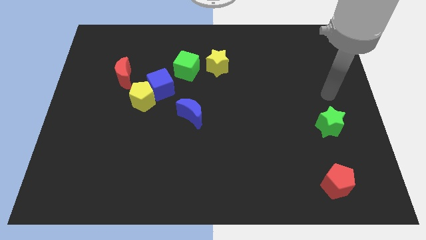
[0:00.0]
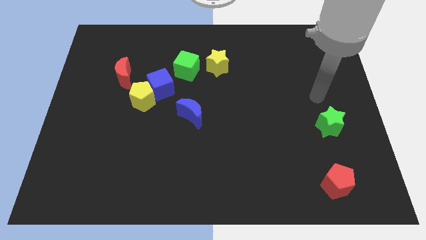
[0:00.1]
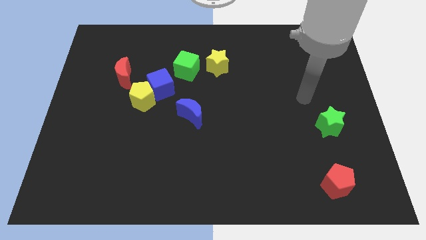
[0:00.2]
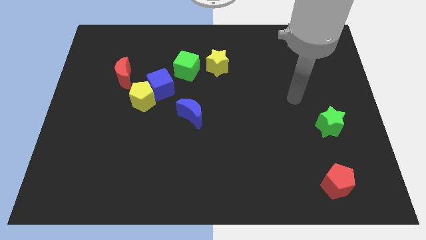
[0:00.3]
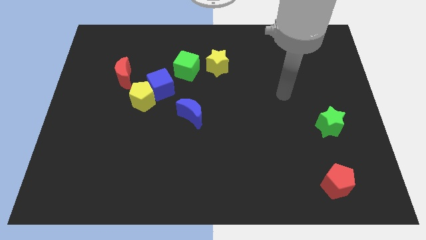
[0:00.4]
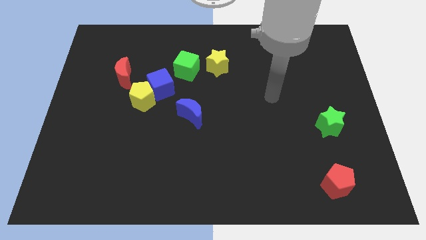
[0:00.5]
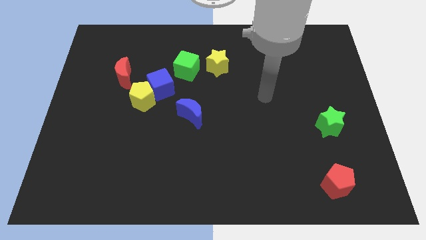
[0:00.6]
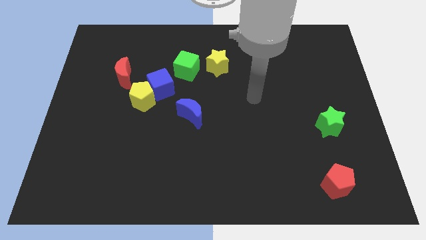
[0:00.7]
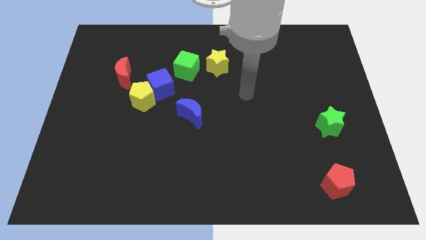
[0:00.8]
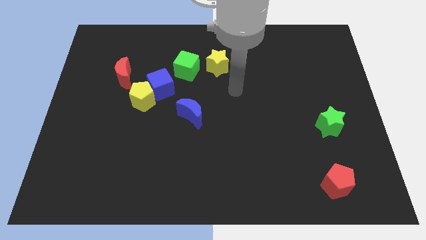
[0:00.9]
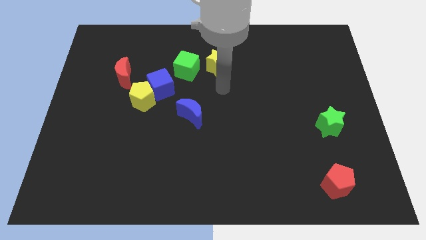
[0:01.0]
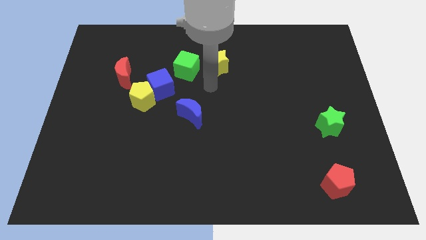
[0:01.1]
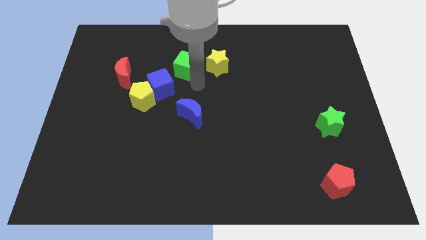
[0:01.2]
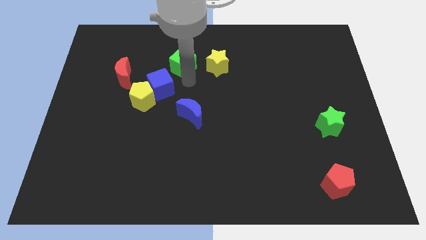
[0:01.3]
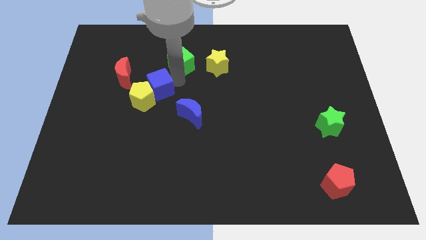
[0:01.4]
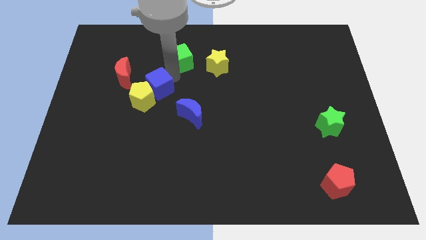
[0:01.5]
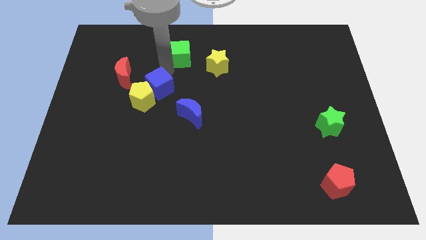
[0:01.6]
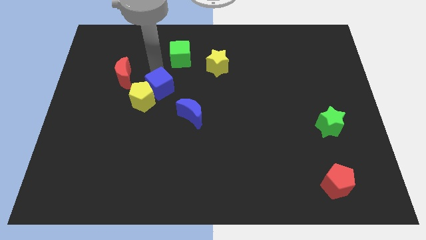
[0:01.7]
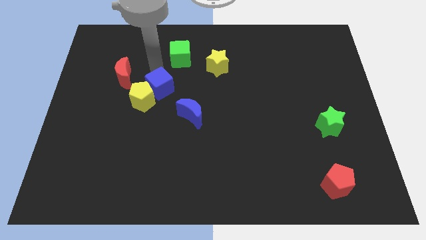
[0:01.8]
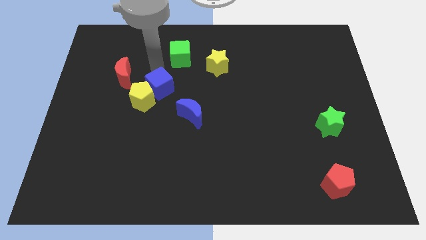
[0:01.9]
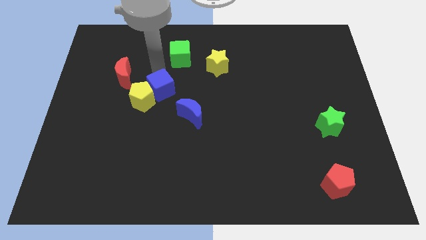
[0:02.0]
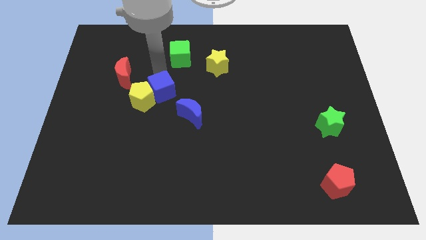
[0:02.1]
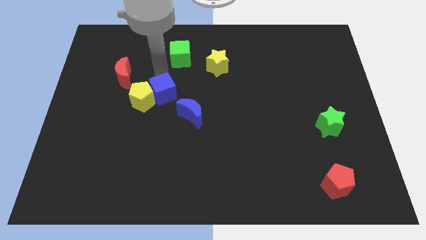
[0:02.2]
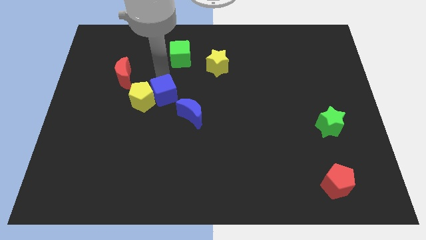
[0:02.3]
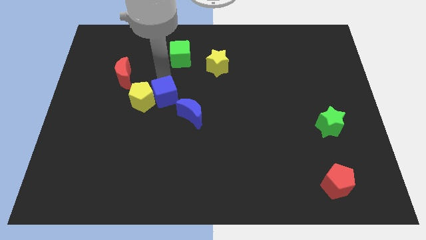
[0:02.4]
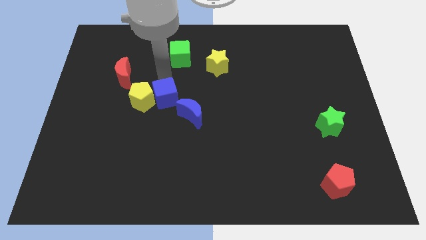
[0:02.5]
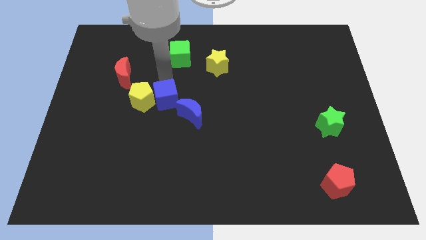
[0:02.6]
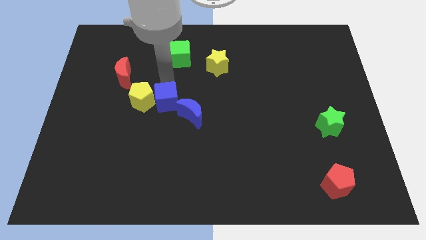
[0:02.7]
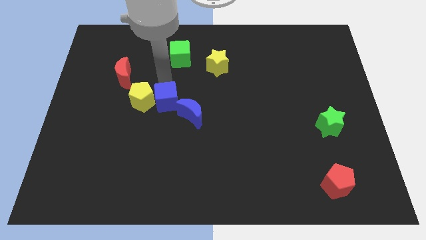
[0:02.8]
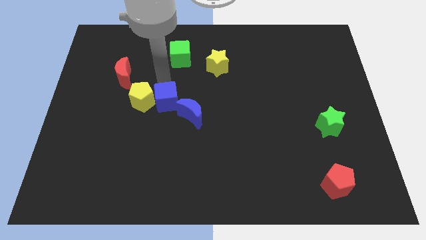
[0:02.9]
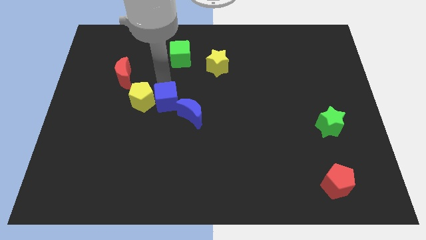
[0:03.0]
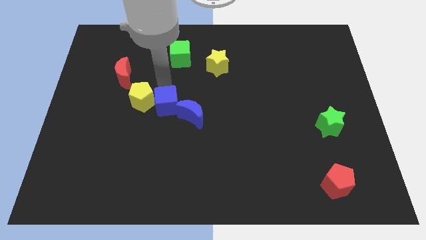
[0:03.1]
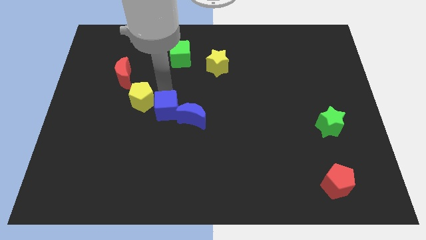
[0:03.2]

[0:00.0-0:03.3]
move the blue cube away from the yellow pentagon and green cube

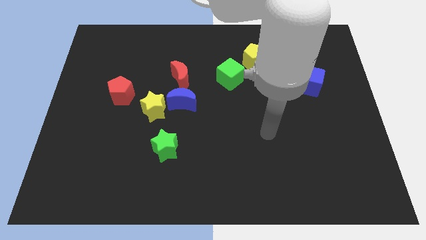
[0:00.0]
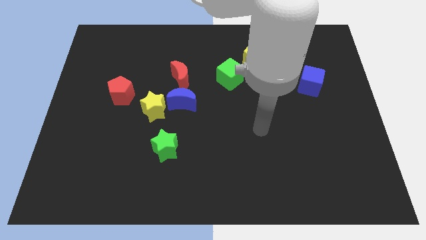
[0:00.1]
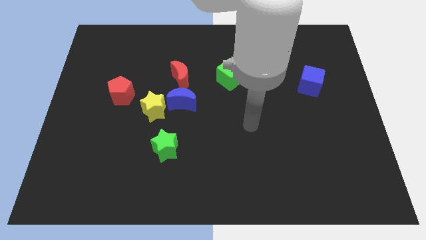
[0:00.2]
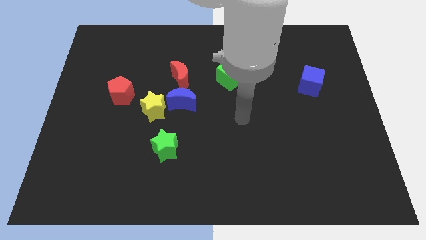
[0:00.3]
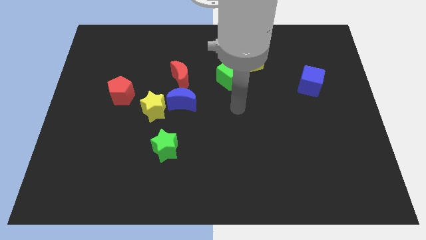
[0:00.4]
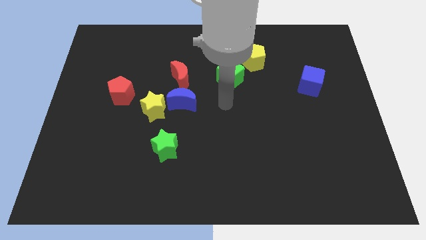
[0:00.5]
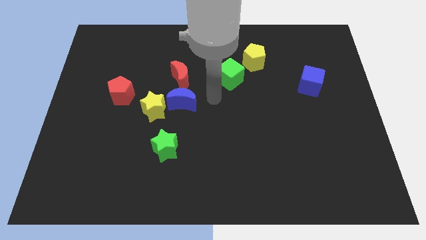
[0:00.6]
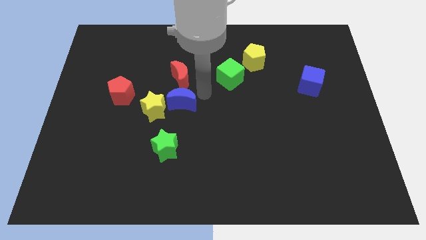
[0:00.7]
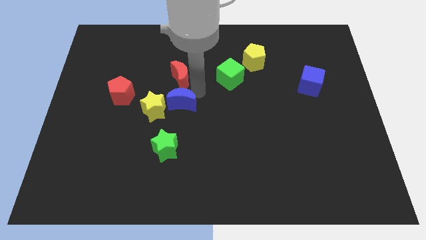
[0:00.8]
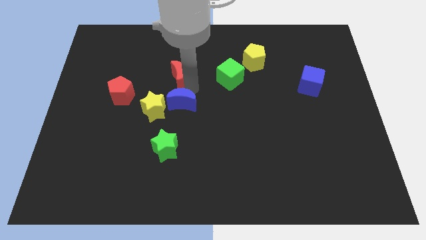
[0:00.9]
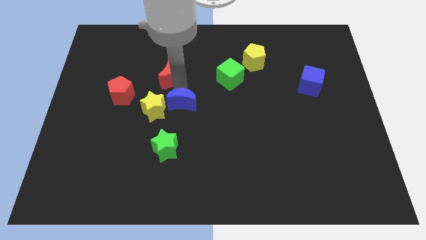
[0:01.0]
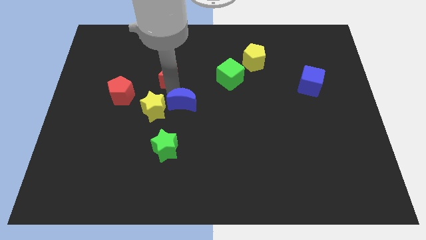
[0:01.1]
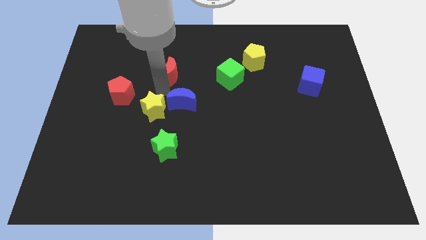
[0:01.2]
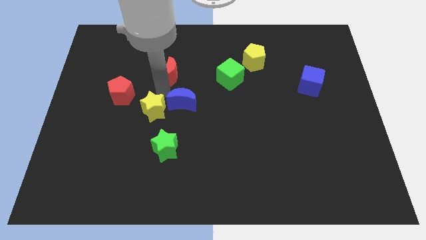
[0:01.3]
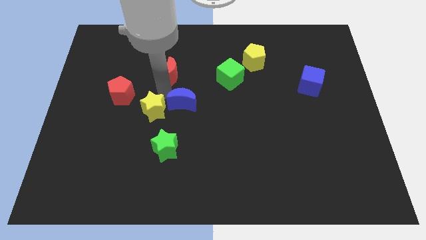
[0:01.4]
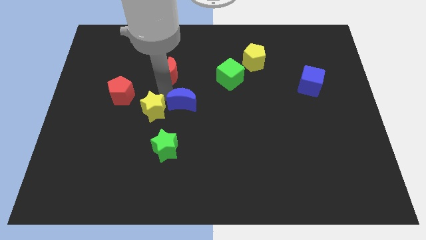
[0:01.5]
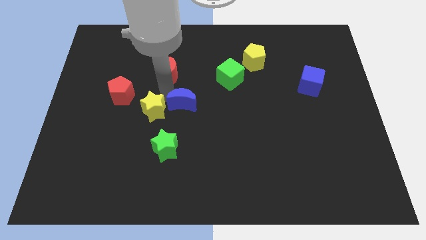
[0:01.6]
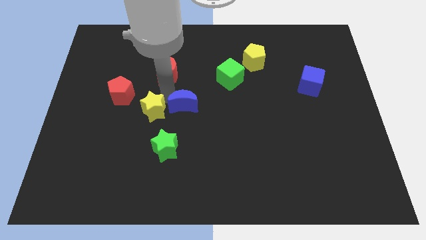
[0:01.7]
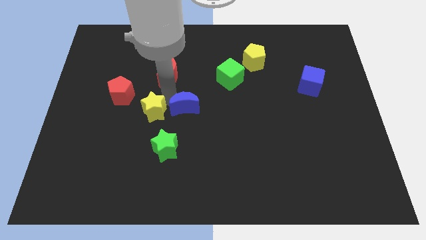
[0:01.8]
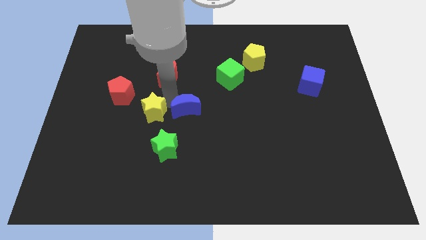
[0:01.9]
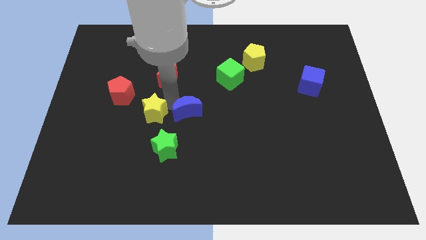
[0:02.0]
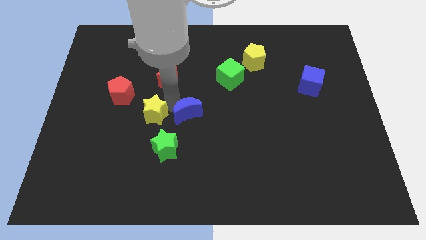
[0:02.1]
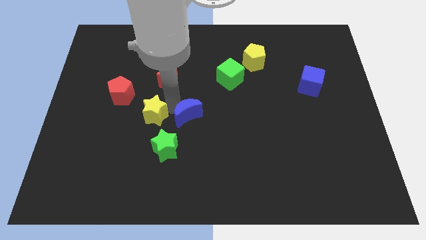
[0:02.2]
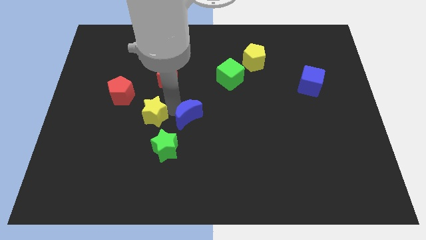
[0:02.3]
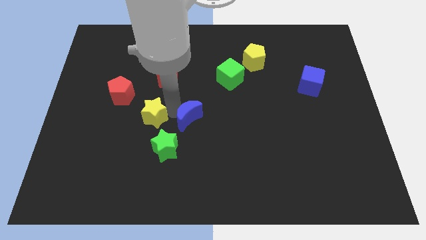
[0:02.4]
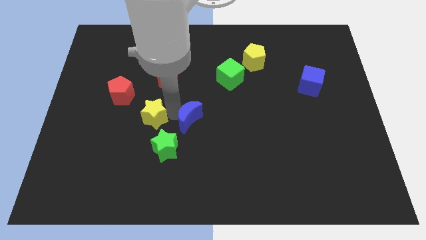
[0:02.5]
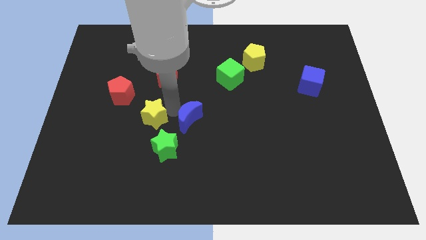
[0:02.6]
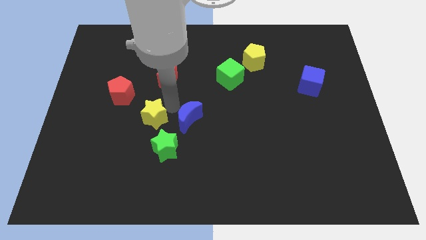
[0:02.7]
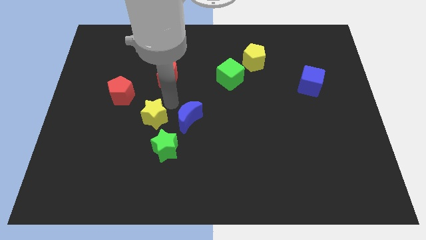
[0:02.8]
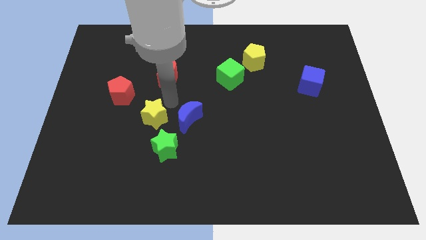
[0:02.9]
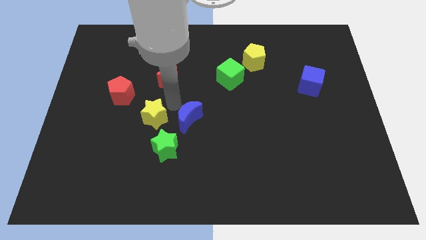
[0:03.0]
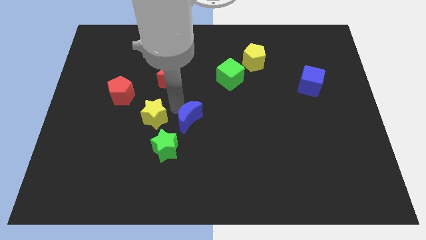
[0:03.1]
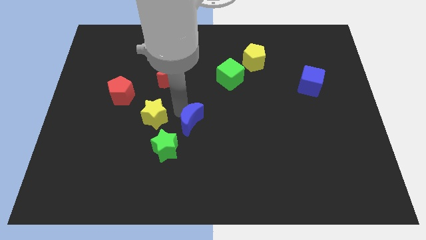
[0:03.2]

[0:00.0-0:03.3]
separate the blue moon from the yellow star and red moon

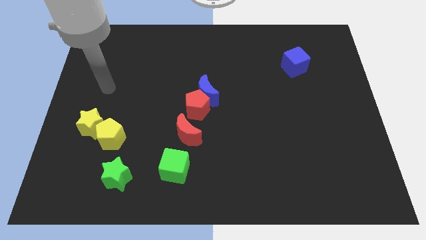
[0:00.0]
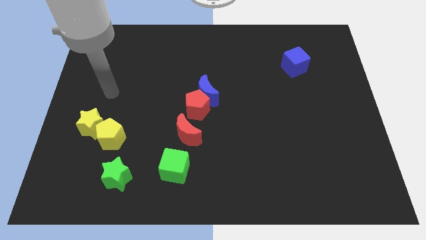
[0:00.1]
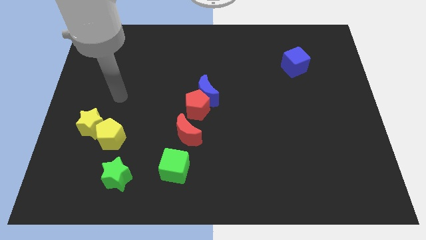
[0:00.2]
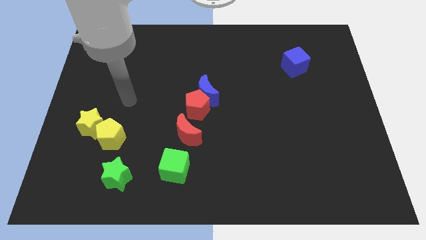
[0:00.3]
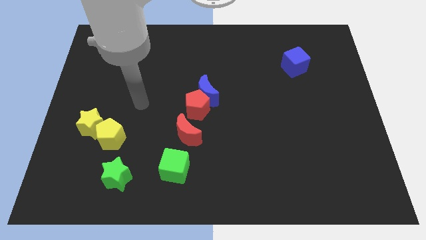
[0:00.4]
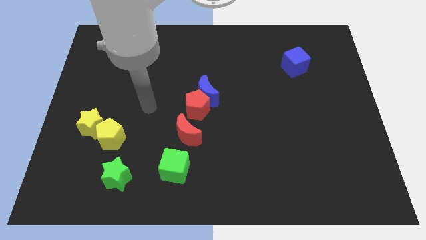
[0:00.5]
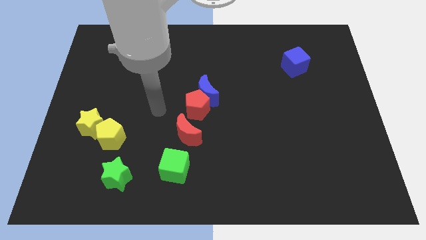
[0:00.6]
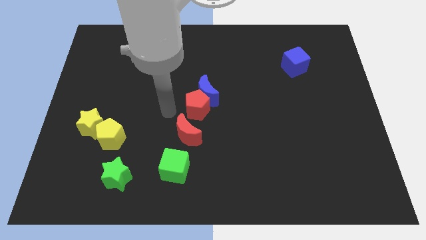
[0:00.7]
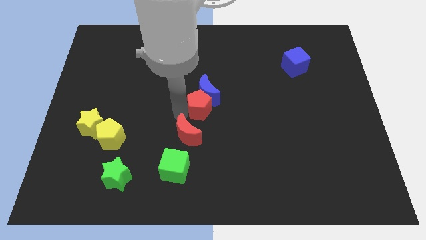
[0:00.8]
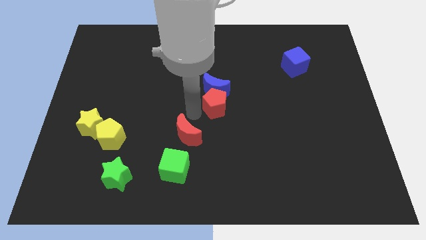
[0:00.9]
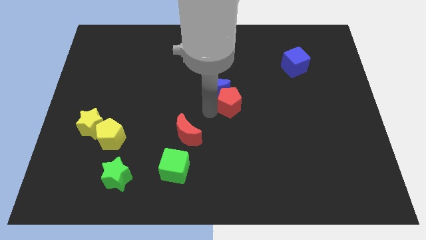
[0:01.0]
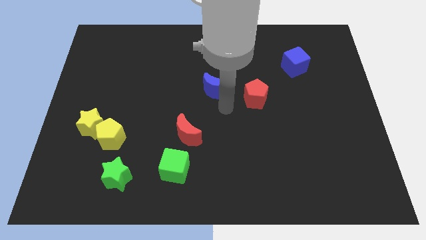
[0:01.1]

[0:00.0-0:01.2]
separate the blue moon from the red pentagon

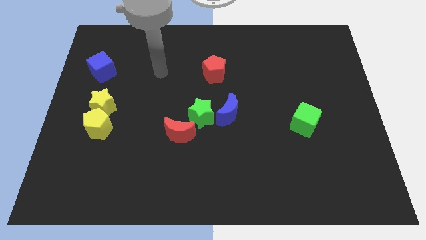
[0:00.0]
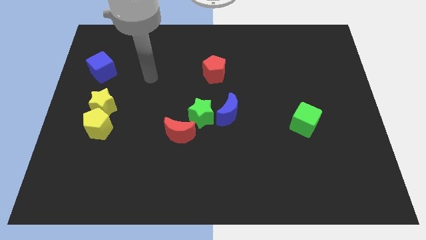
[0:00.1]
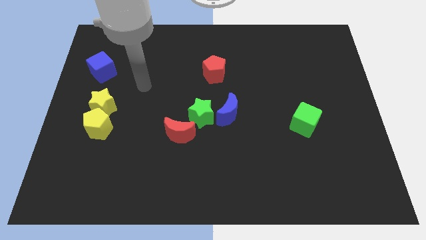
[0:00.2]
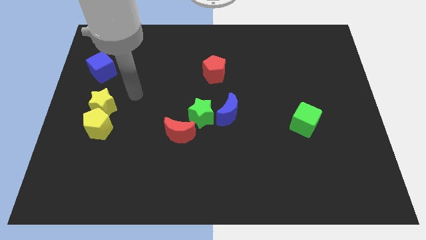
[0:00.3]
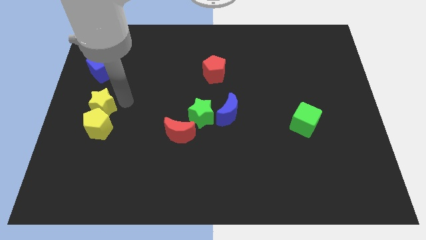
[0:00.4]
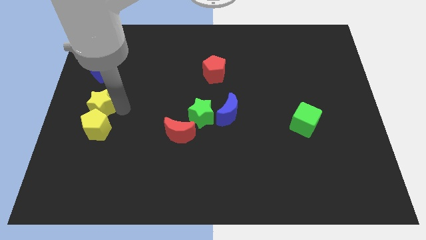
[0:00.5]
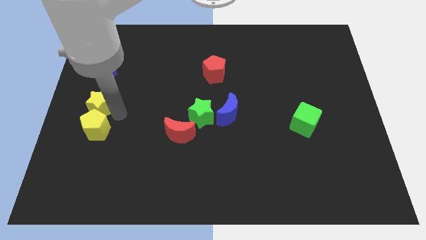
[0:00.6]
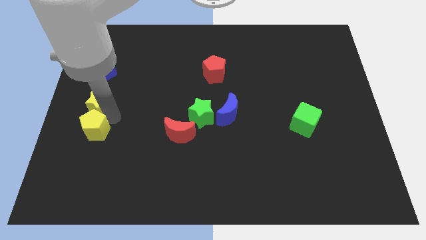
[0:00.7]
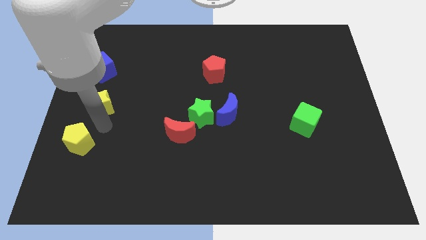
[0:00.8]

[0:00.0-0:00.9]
pull the yellow star apart from the yellow pentagon

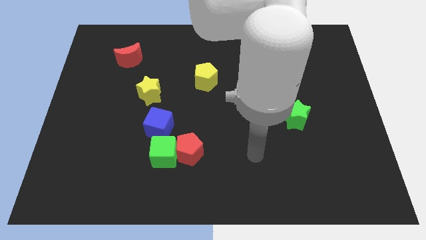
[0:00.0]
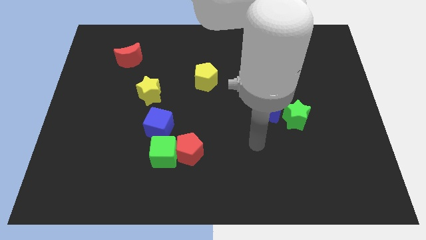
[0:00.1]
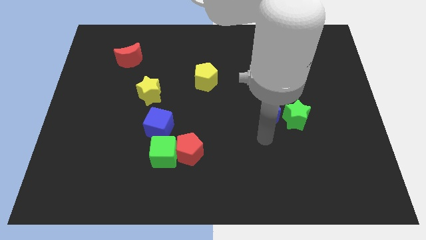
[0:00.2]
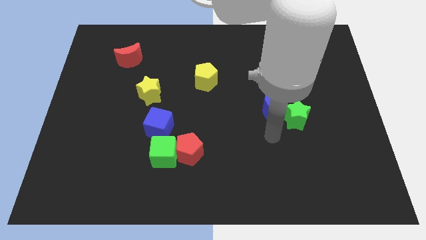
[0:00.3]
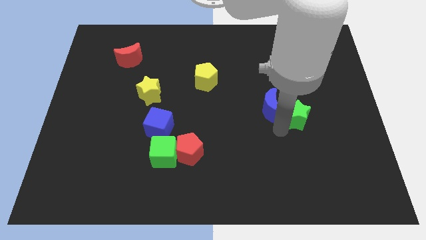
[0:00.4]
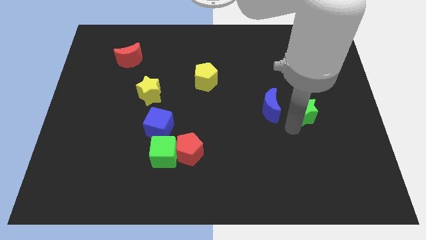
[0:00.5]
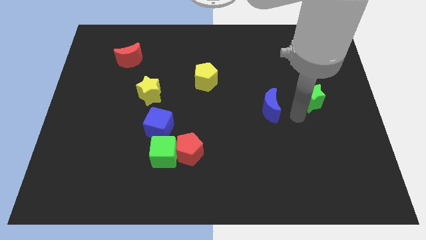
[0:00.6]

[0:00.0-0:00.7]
pull the blue moon apart from the green star
